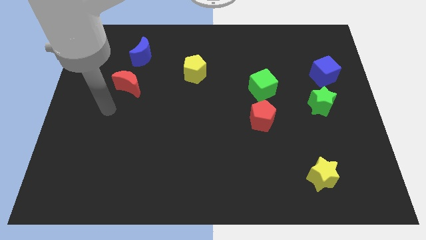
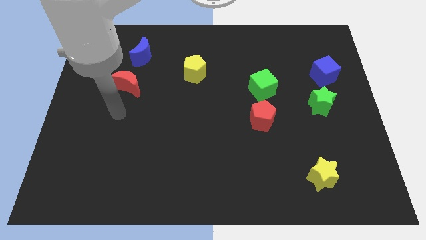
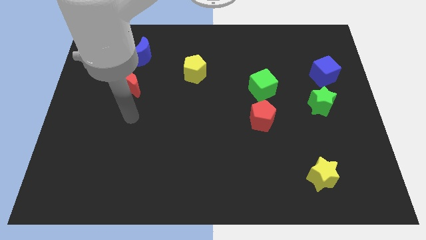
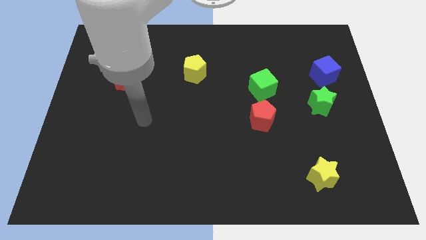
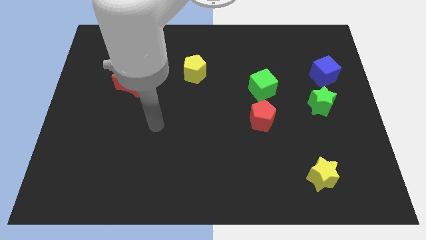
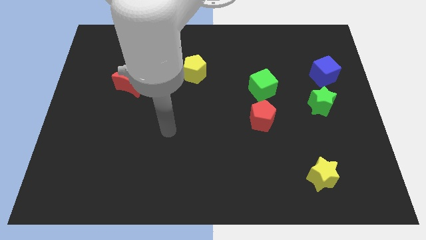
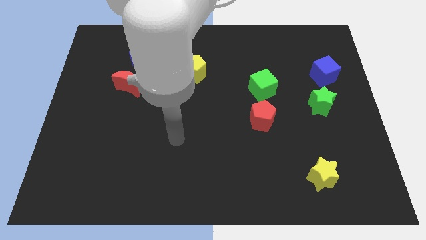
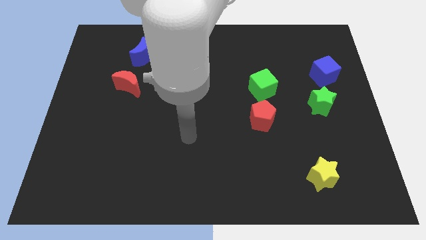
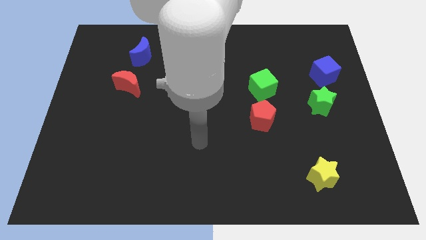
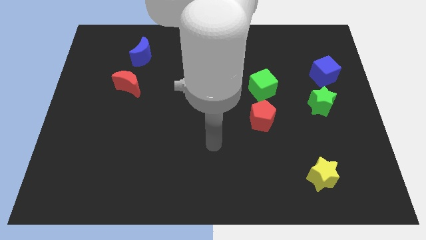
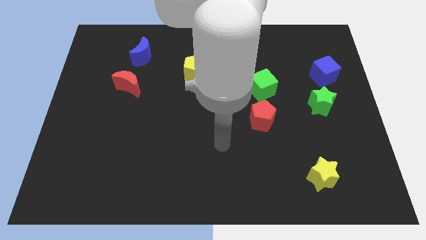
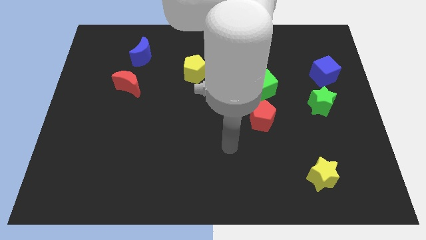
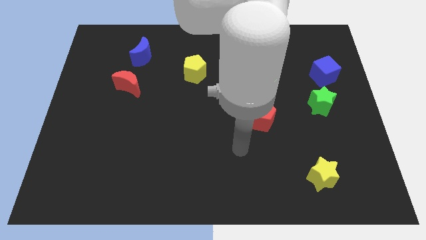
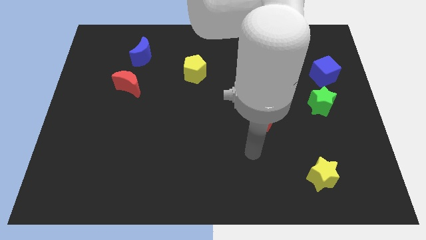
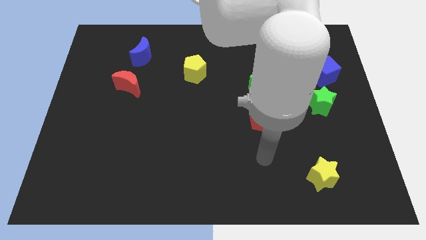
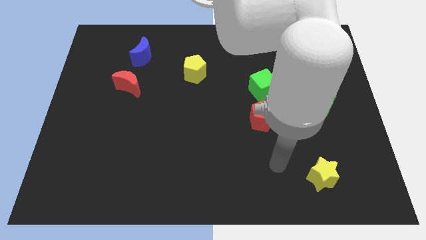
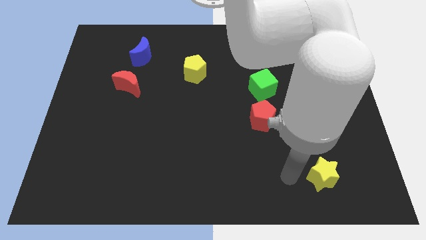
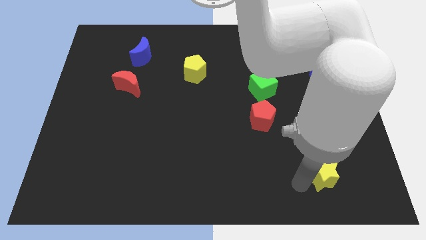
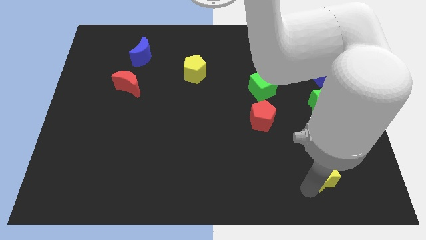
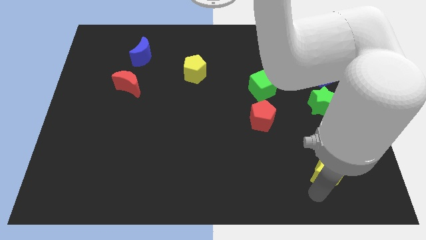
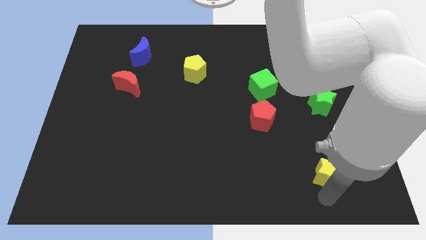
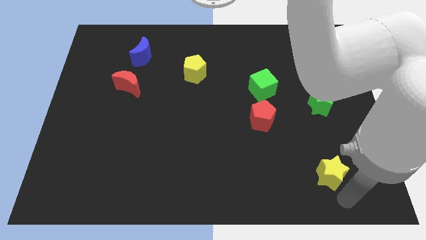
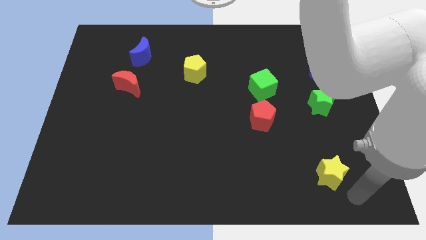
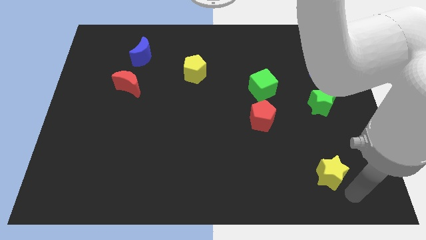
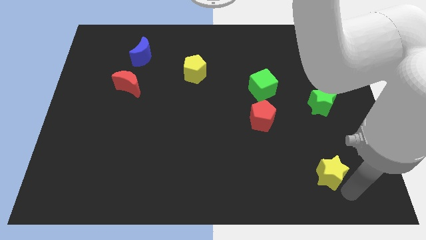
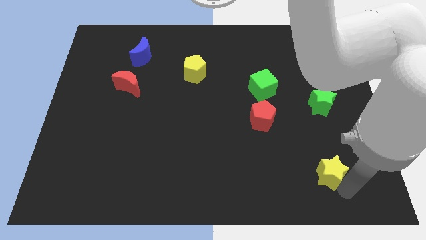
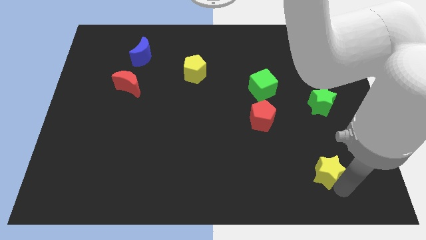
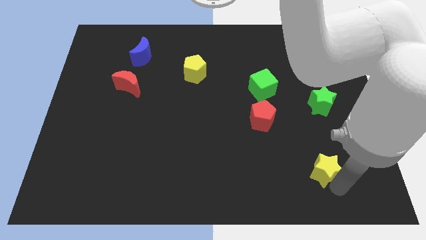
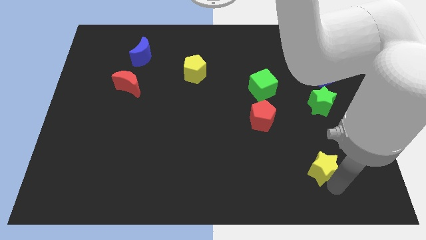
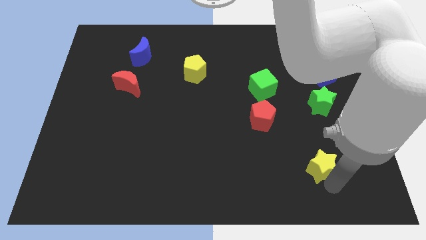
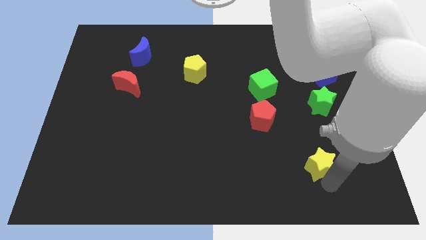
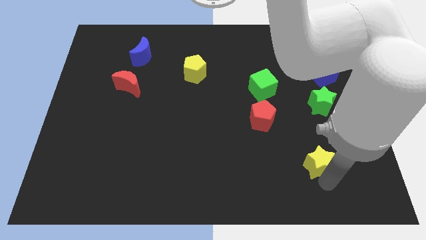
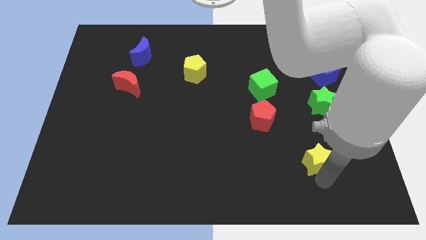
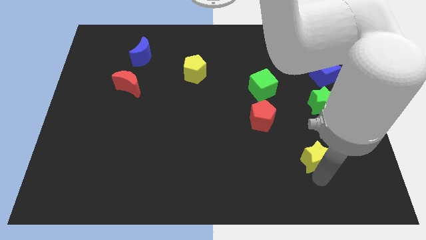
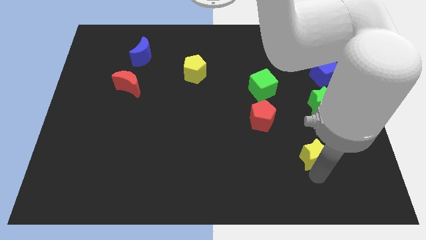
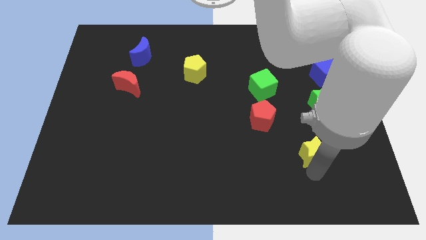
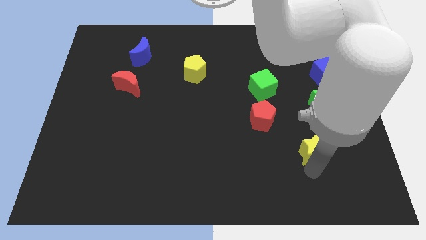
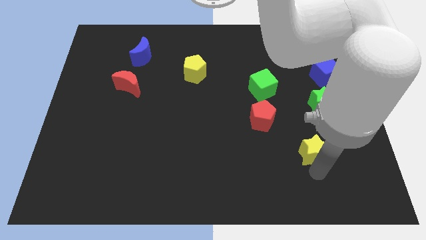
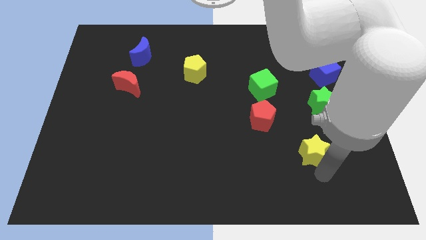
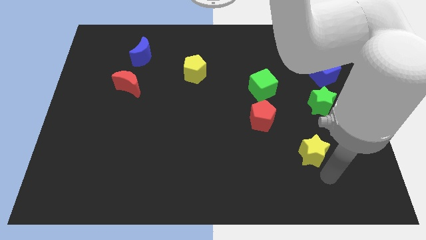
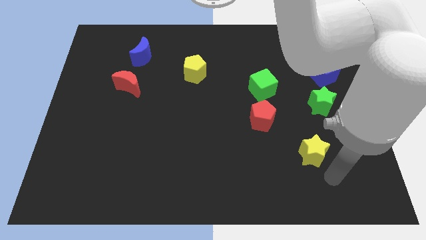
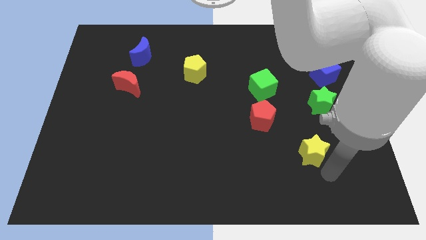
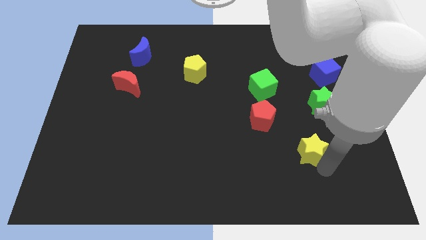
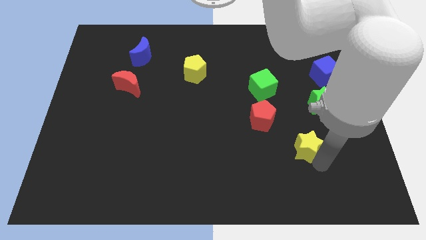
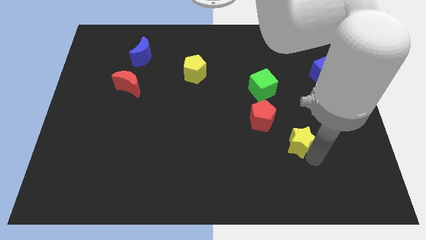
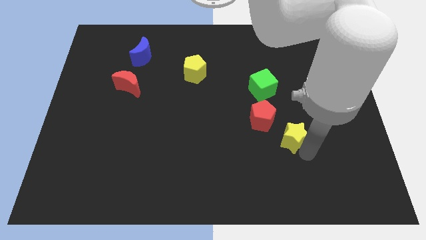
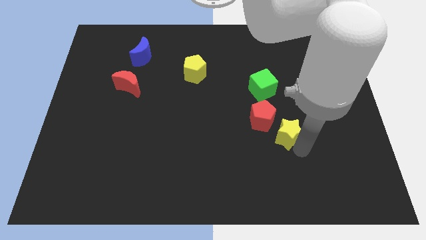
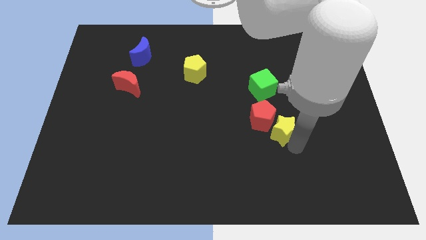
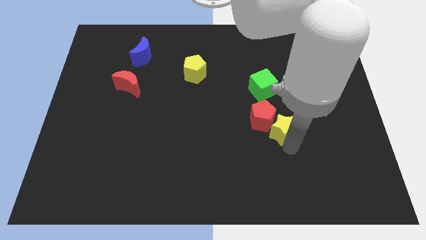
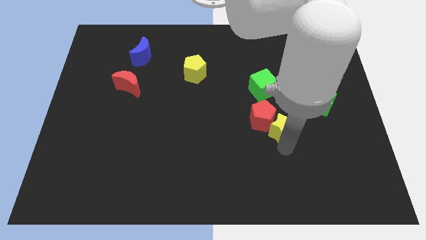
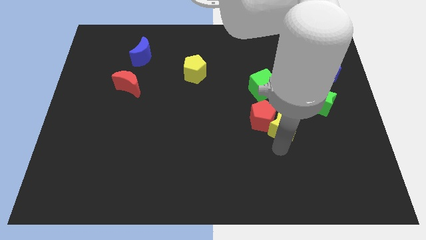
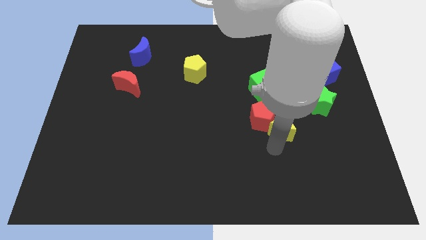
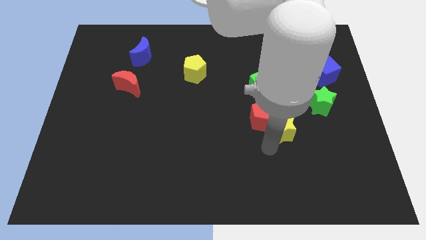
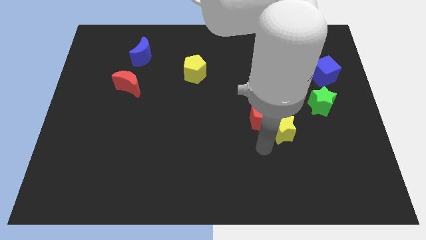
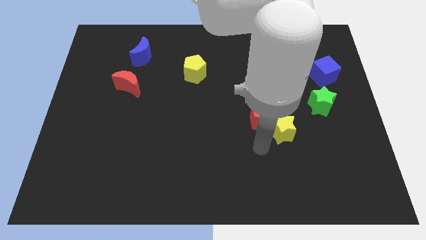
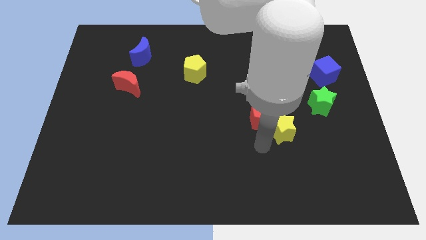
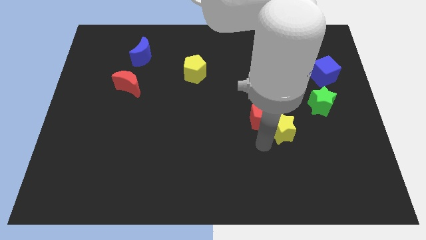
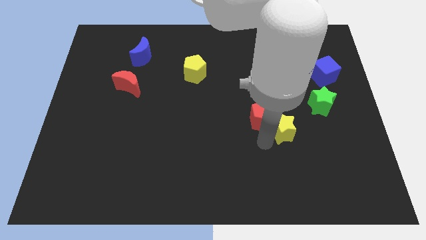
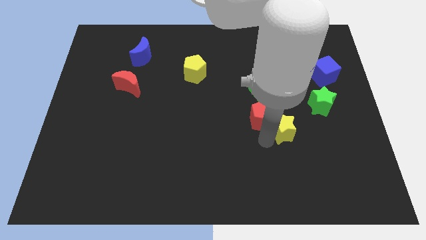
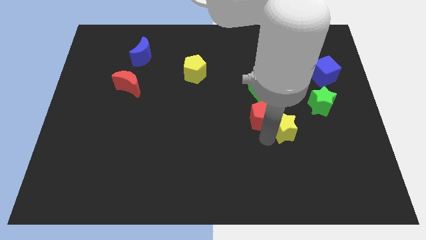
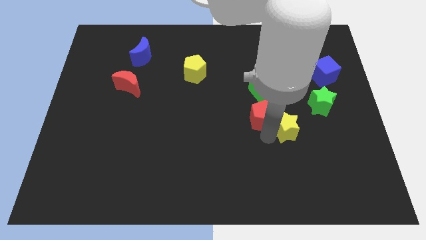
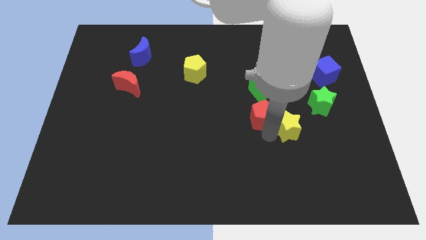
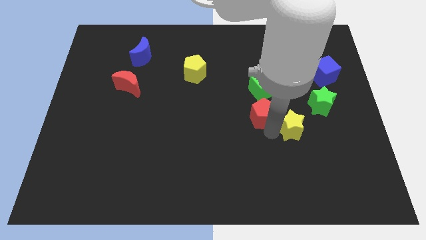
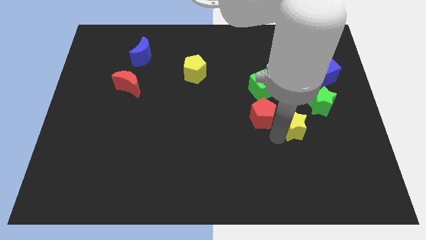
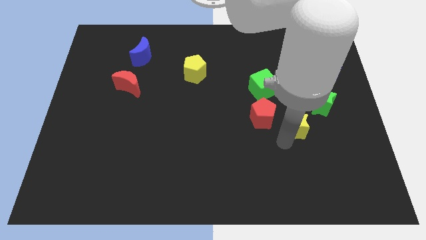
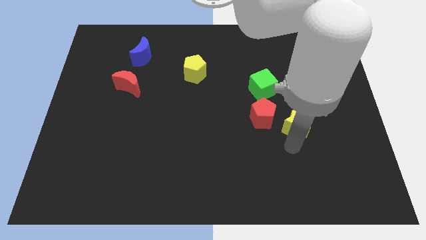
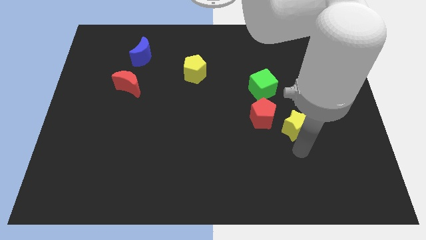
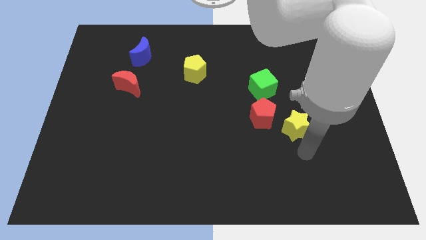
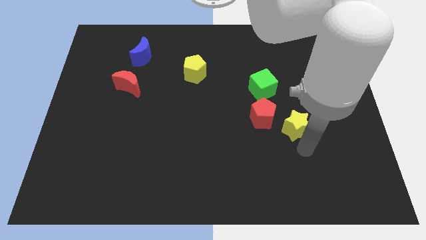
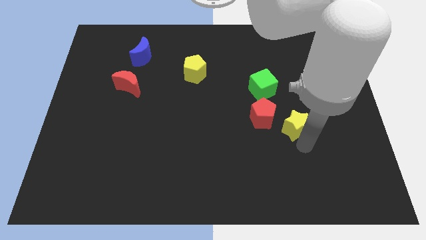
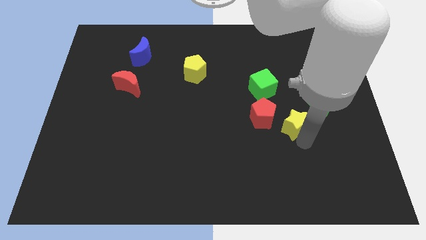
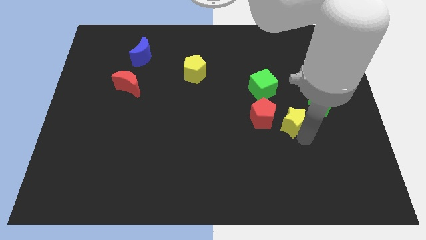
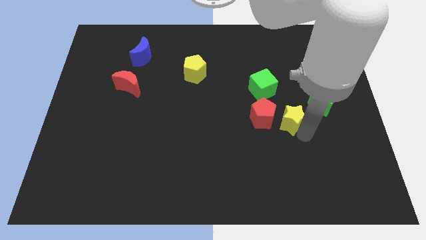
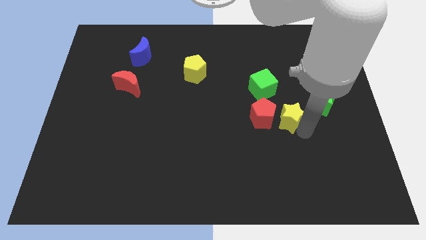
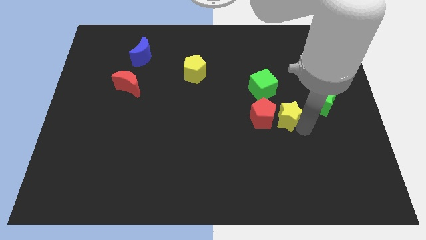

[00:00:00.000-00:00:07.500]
slide the yellow star diagonally up and to the right of the red pentagon
